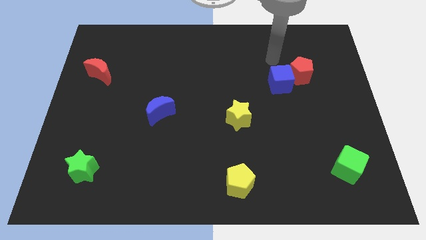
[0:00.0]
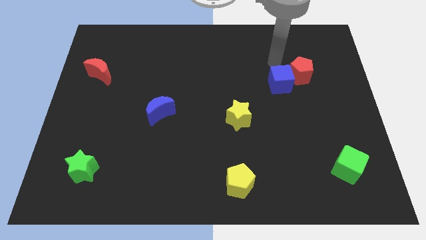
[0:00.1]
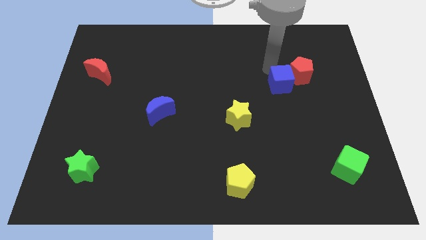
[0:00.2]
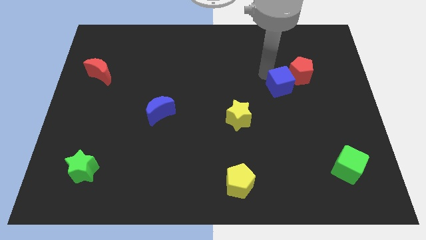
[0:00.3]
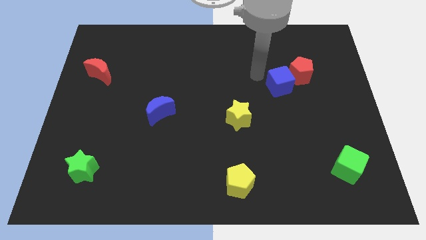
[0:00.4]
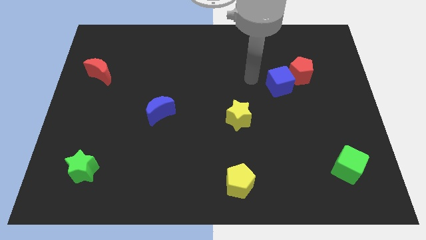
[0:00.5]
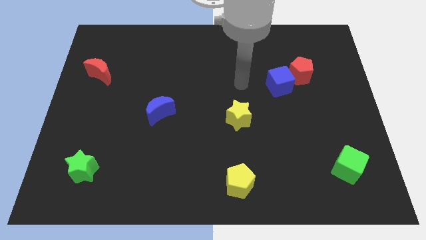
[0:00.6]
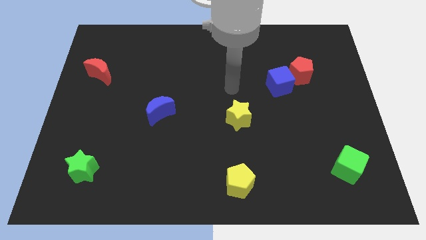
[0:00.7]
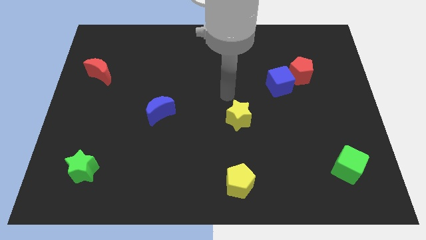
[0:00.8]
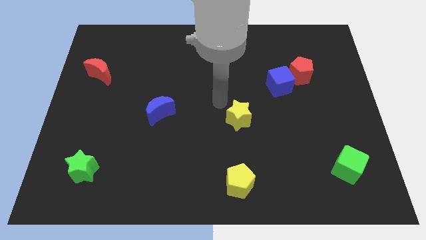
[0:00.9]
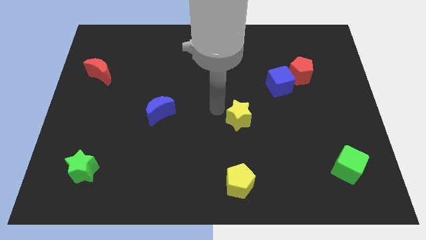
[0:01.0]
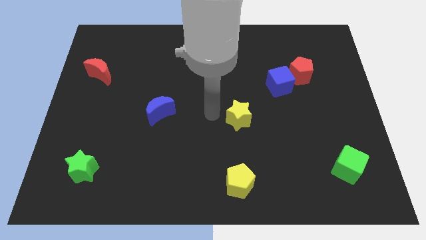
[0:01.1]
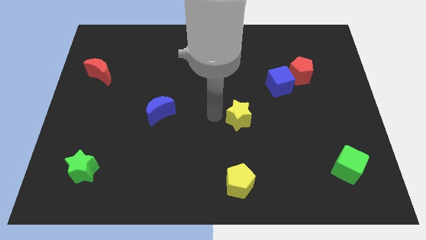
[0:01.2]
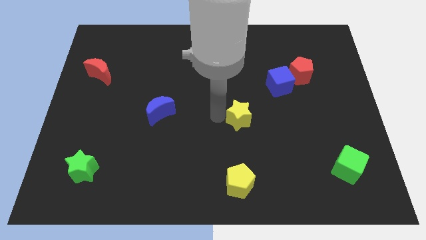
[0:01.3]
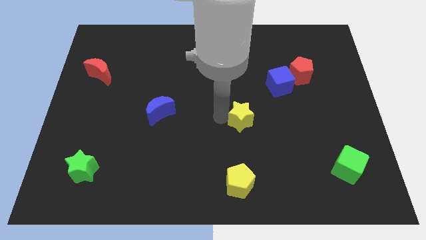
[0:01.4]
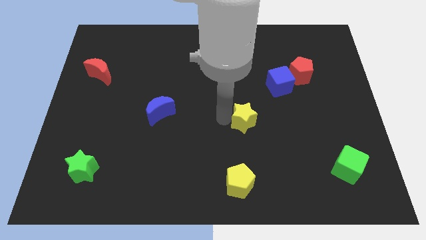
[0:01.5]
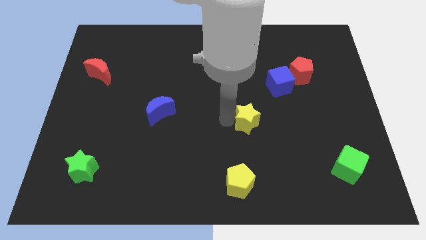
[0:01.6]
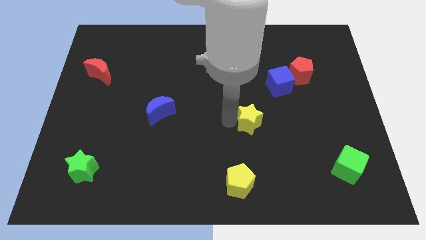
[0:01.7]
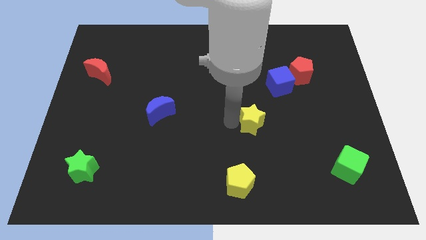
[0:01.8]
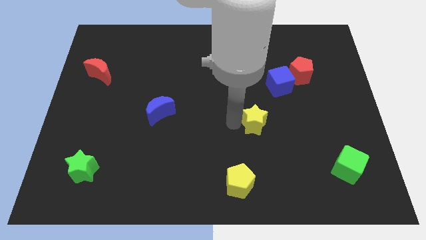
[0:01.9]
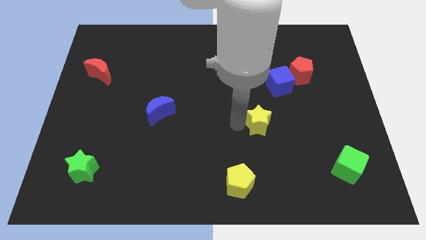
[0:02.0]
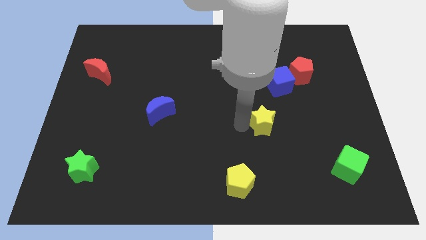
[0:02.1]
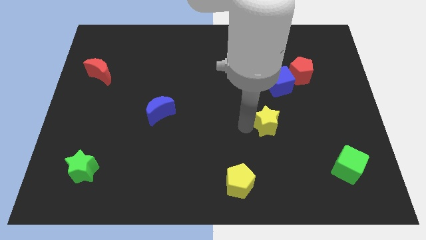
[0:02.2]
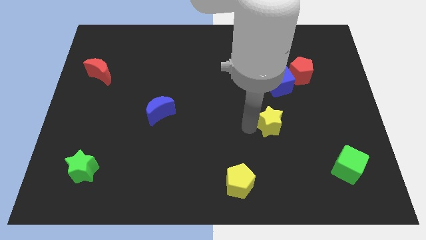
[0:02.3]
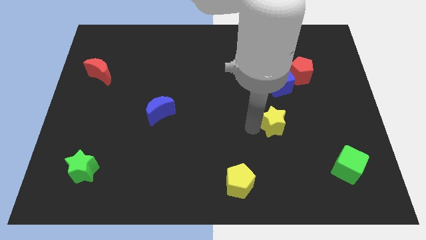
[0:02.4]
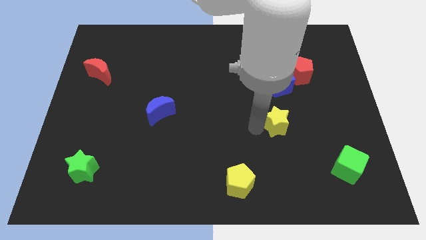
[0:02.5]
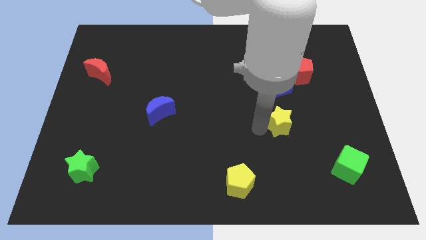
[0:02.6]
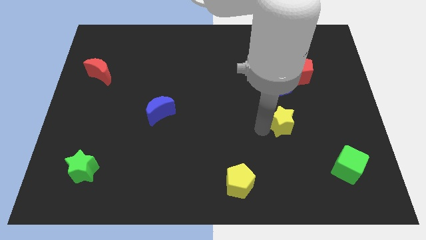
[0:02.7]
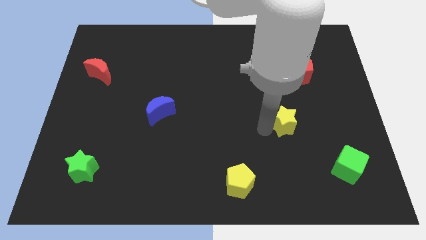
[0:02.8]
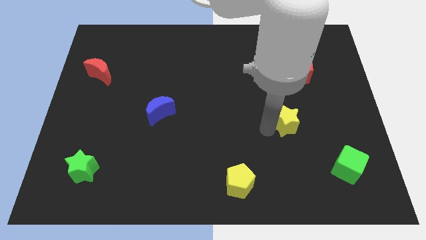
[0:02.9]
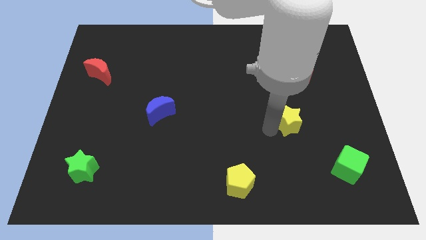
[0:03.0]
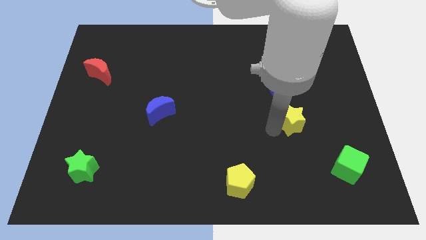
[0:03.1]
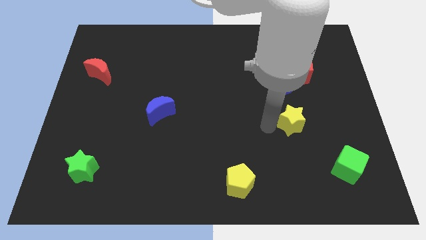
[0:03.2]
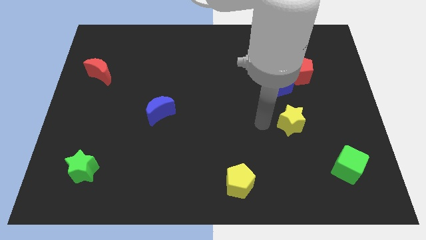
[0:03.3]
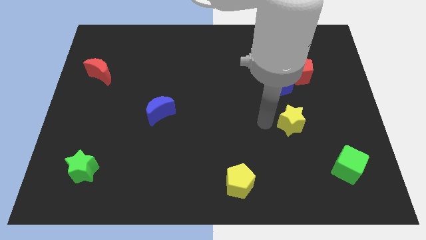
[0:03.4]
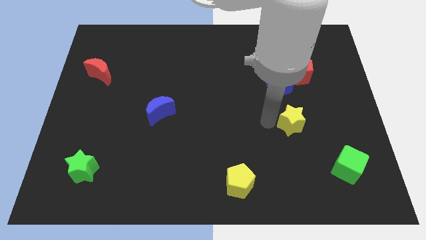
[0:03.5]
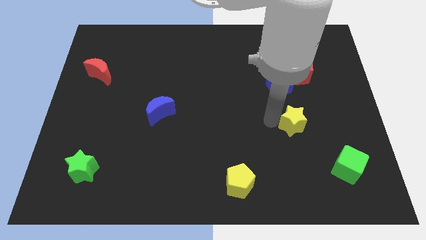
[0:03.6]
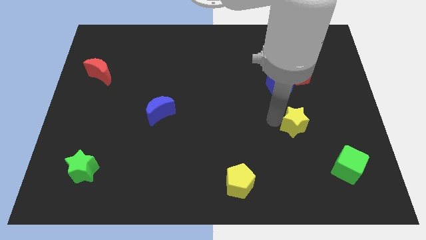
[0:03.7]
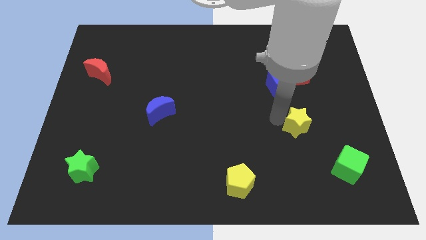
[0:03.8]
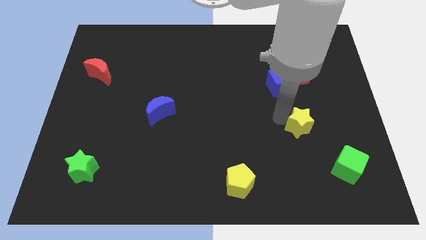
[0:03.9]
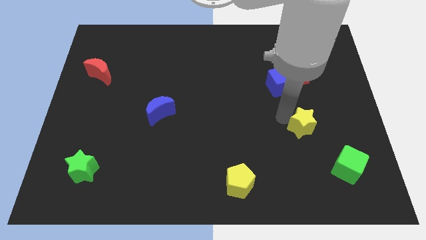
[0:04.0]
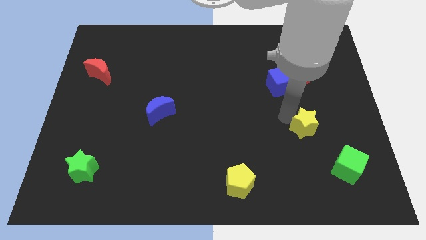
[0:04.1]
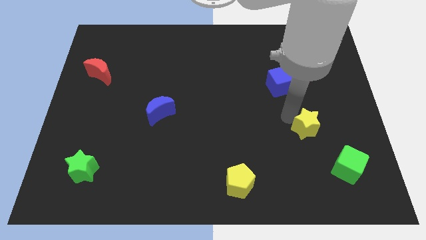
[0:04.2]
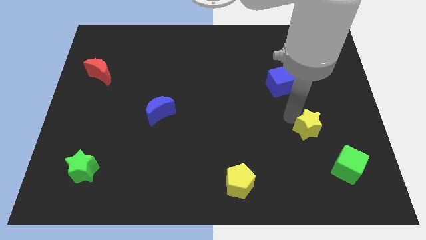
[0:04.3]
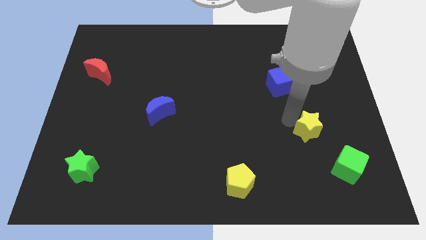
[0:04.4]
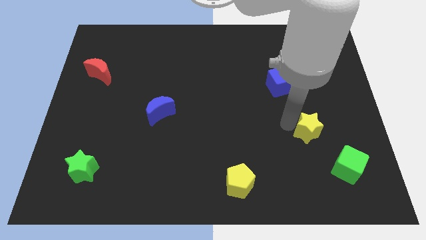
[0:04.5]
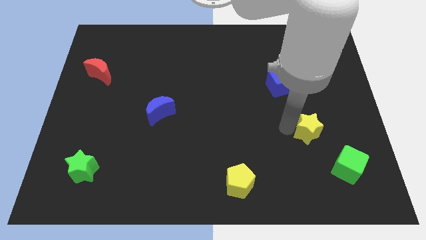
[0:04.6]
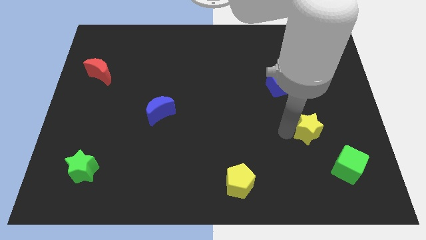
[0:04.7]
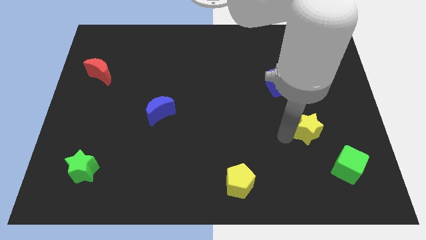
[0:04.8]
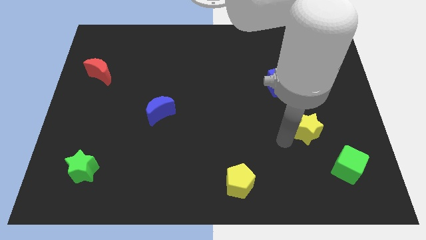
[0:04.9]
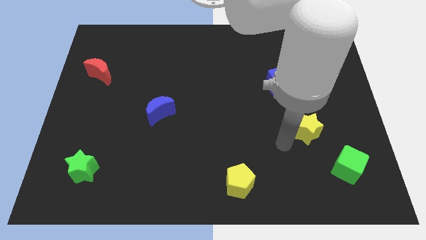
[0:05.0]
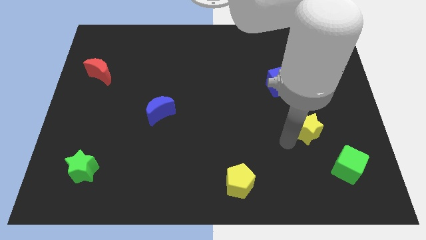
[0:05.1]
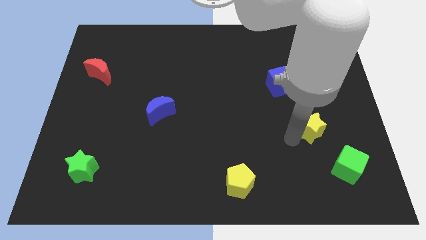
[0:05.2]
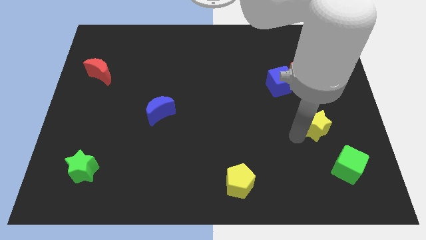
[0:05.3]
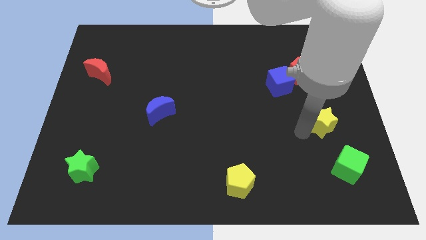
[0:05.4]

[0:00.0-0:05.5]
move the yellow star above the green cube

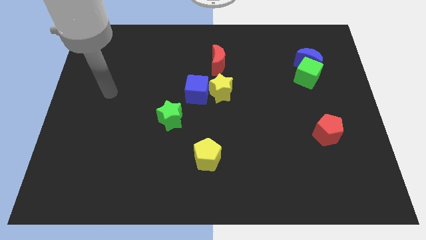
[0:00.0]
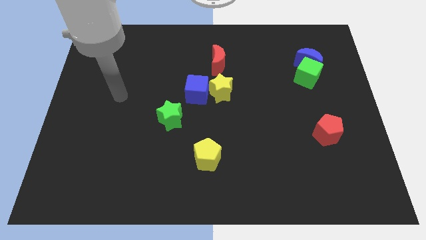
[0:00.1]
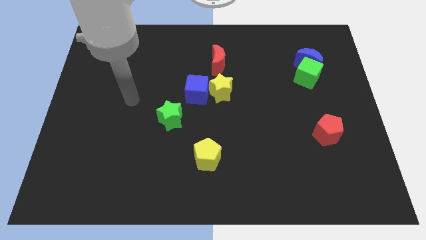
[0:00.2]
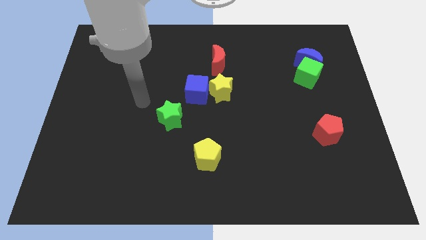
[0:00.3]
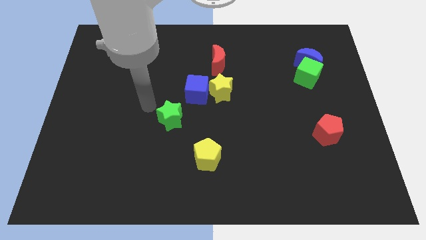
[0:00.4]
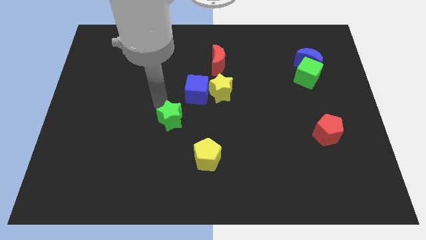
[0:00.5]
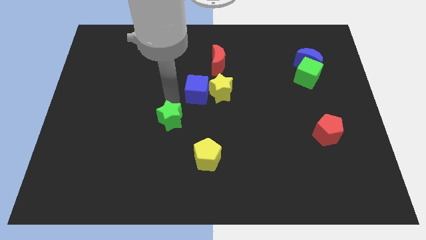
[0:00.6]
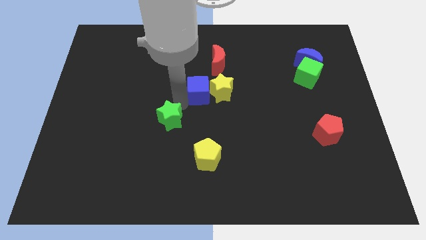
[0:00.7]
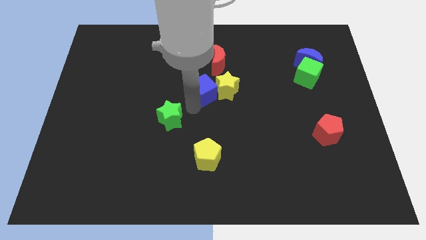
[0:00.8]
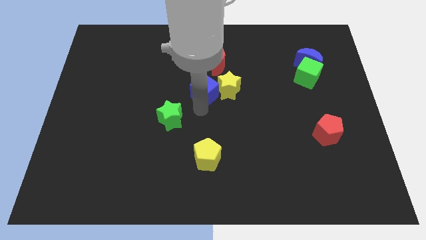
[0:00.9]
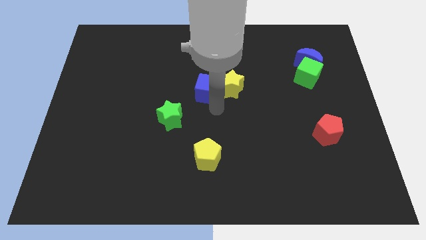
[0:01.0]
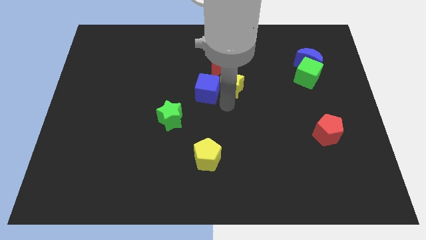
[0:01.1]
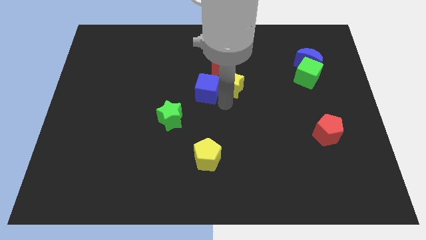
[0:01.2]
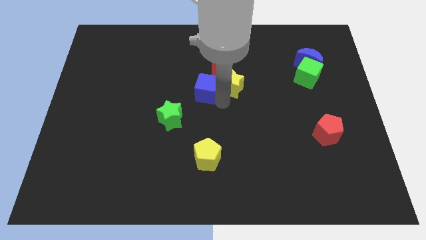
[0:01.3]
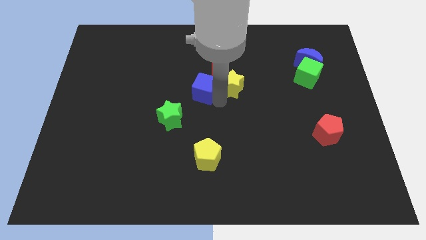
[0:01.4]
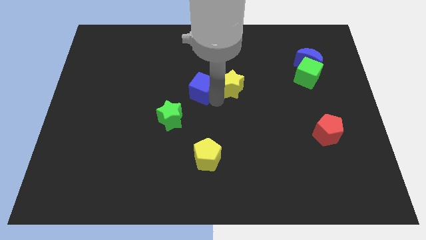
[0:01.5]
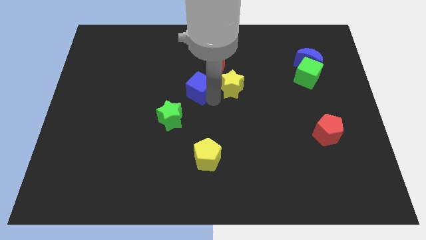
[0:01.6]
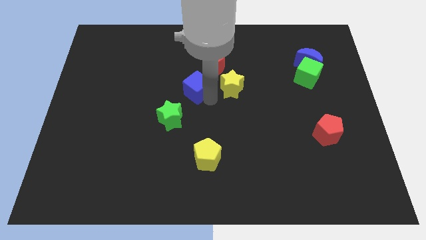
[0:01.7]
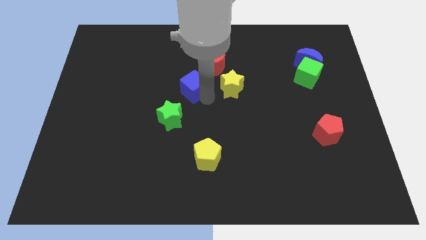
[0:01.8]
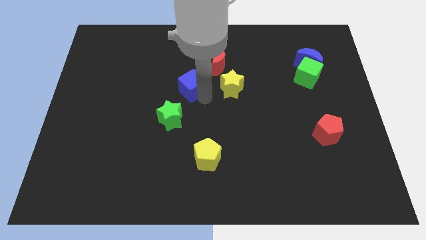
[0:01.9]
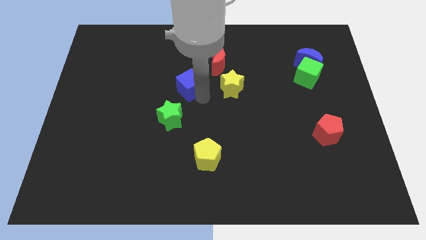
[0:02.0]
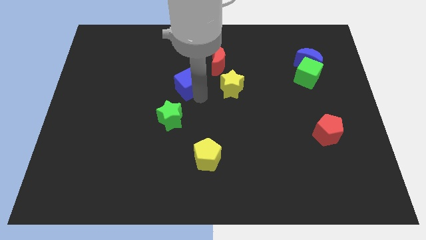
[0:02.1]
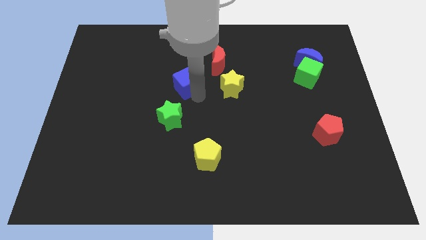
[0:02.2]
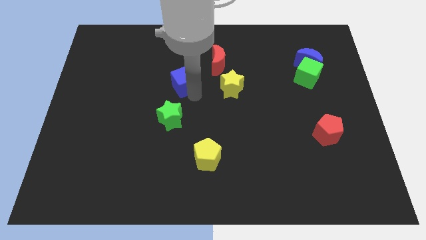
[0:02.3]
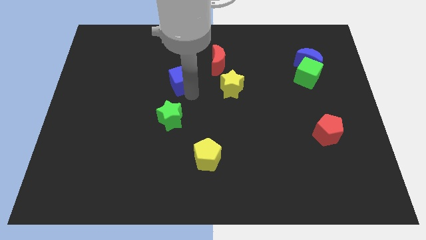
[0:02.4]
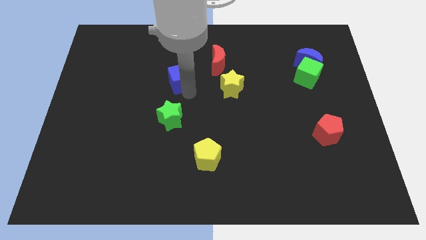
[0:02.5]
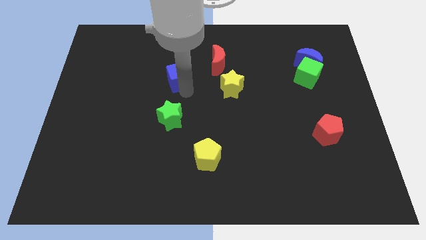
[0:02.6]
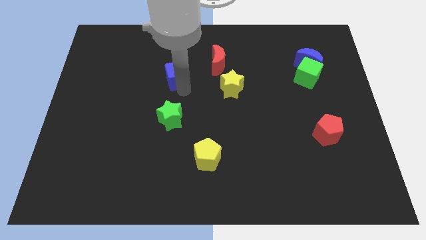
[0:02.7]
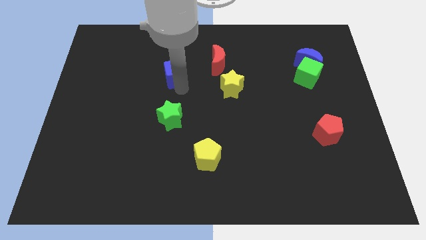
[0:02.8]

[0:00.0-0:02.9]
put the blue cube left of the red moon
